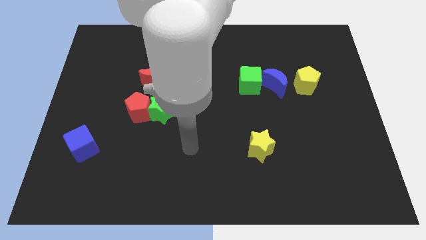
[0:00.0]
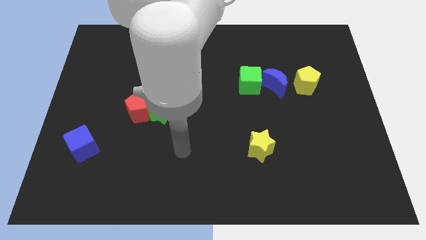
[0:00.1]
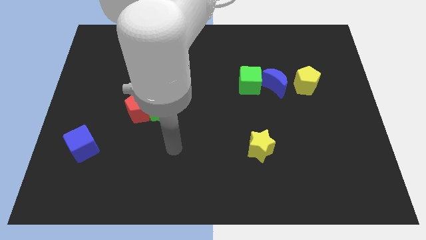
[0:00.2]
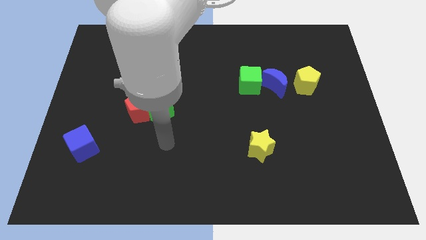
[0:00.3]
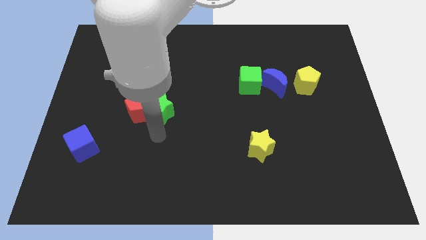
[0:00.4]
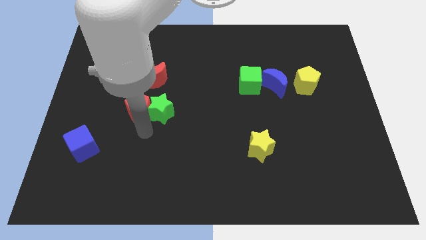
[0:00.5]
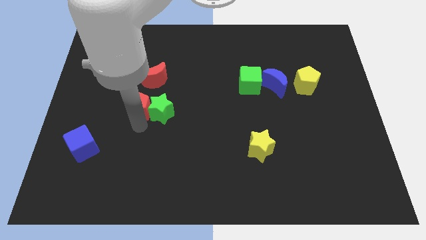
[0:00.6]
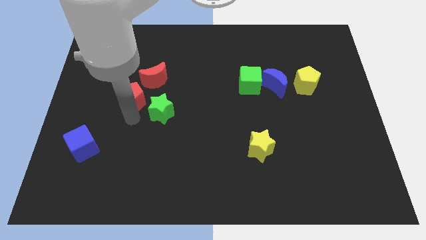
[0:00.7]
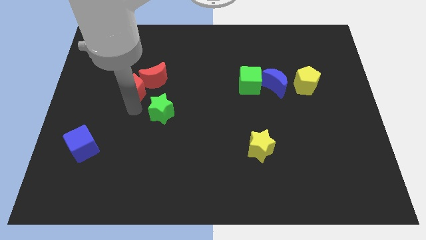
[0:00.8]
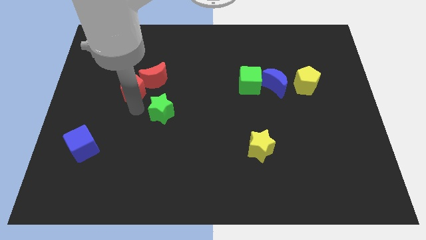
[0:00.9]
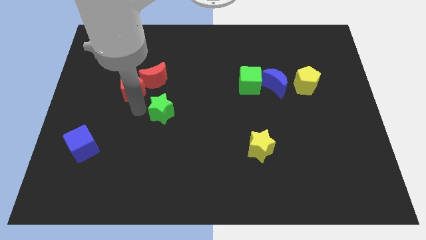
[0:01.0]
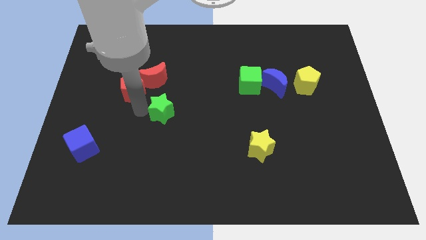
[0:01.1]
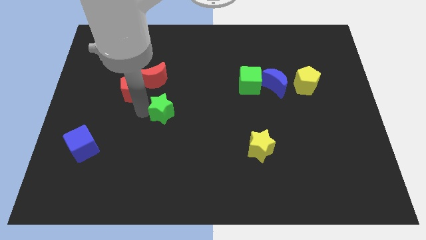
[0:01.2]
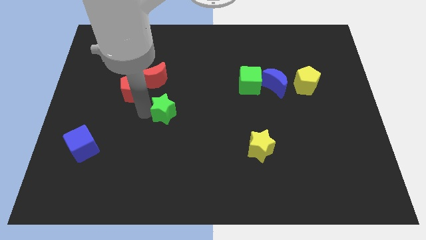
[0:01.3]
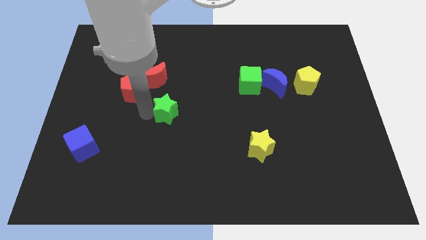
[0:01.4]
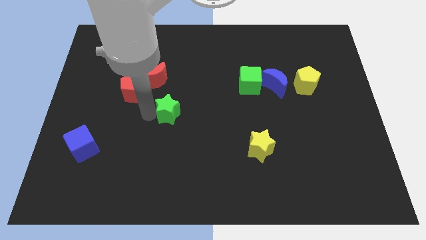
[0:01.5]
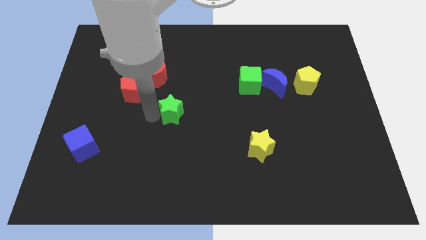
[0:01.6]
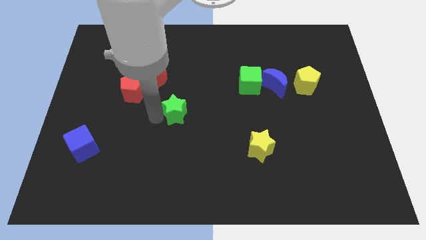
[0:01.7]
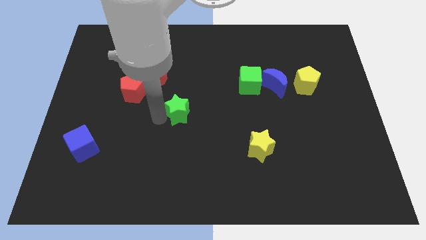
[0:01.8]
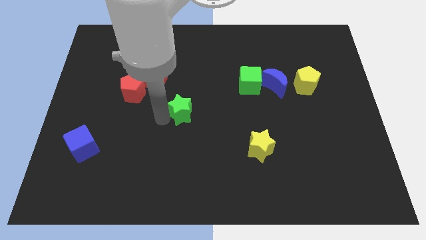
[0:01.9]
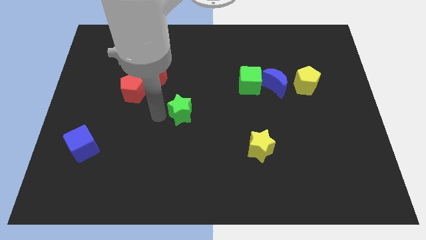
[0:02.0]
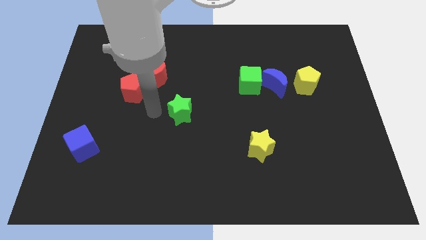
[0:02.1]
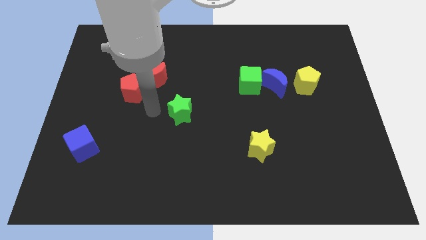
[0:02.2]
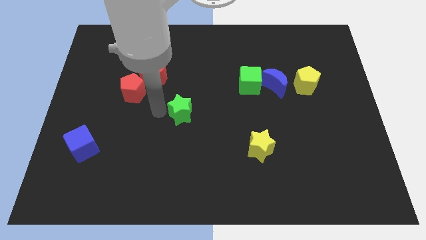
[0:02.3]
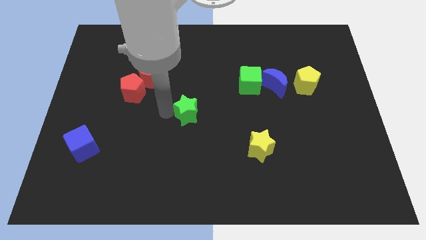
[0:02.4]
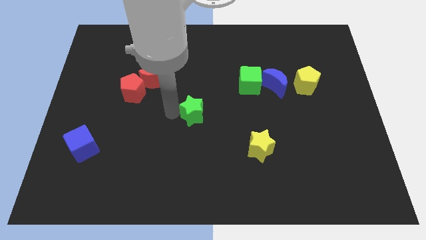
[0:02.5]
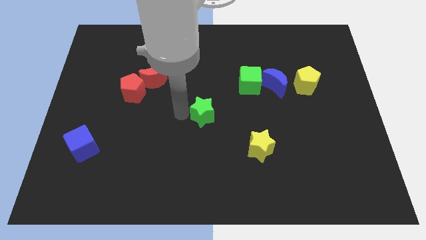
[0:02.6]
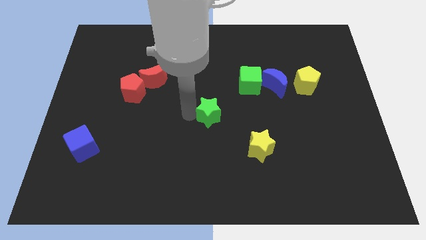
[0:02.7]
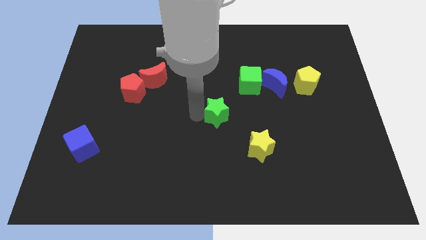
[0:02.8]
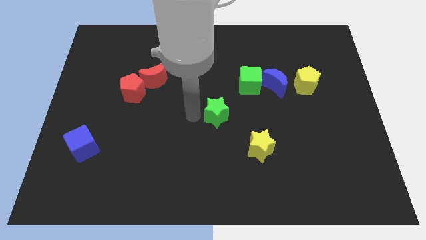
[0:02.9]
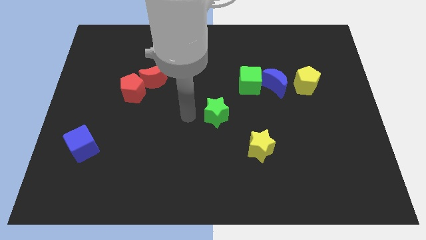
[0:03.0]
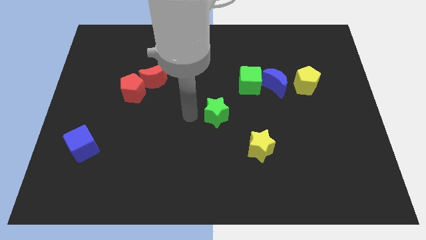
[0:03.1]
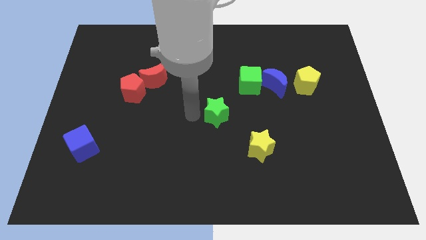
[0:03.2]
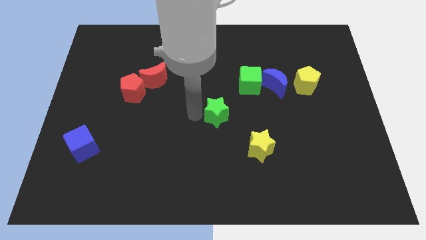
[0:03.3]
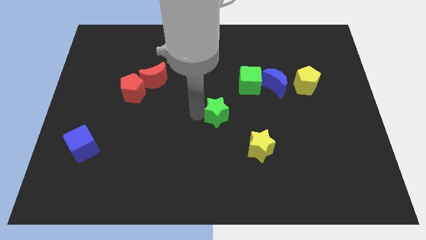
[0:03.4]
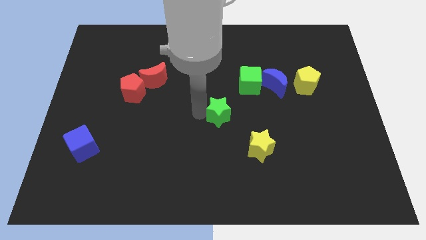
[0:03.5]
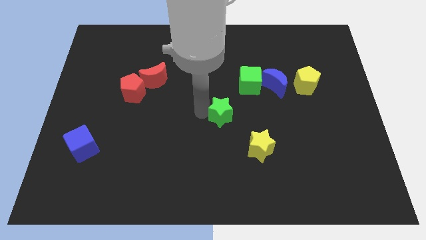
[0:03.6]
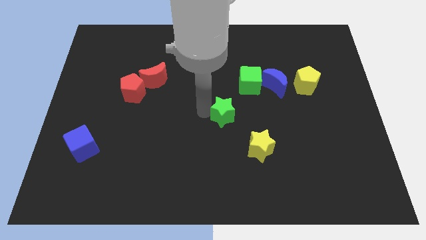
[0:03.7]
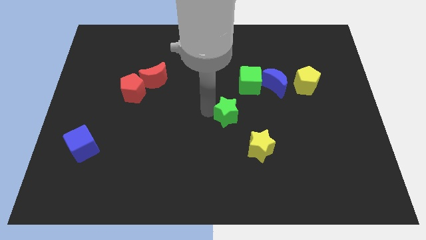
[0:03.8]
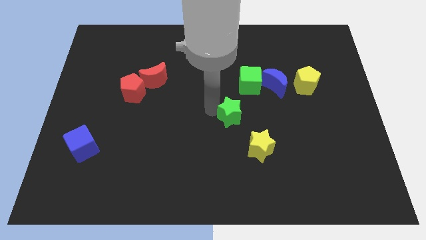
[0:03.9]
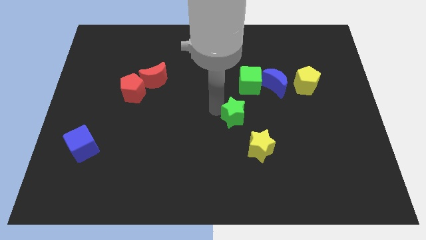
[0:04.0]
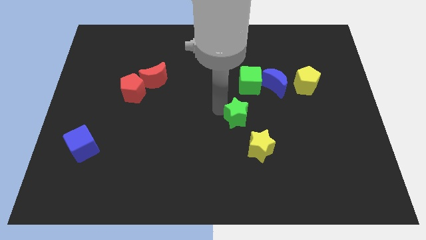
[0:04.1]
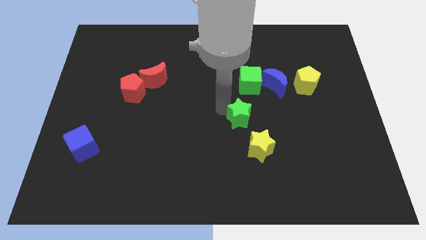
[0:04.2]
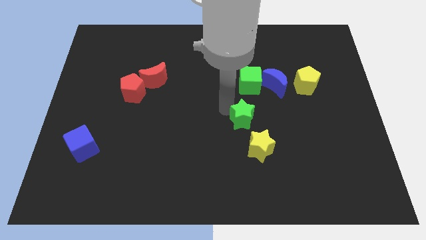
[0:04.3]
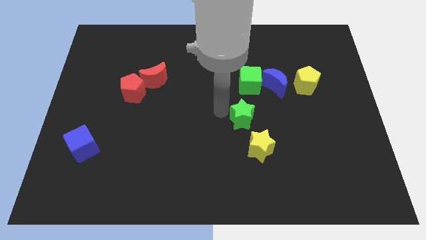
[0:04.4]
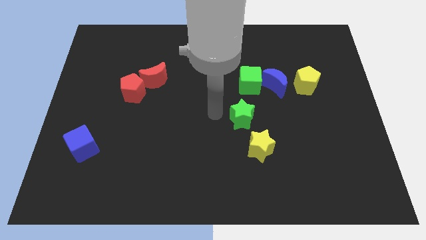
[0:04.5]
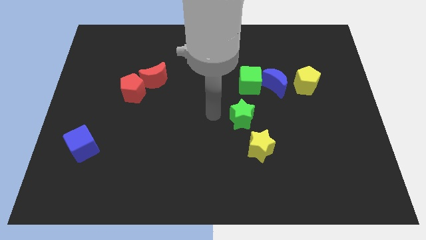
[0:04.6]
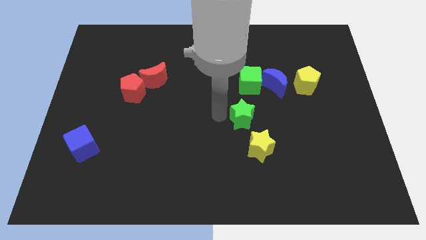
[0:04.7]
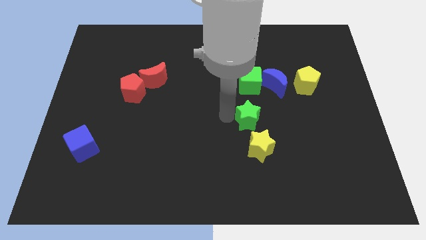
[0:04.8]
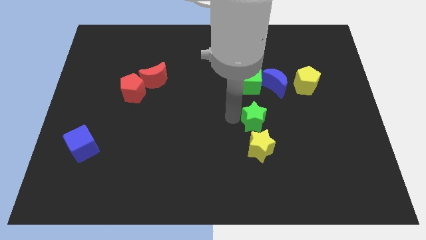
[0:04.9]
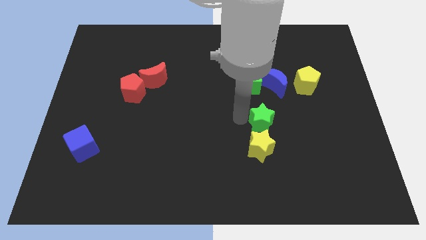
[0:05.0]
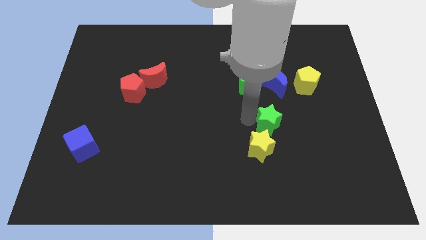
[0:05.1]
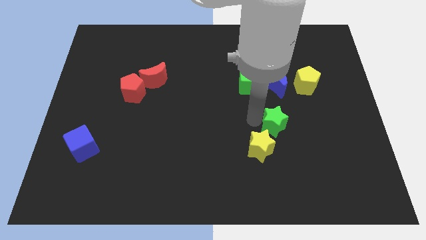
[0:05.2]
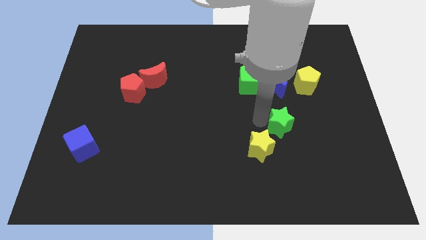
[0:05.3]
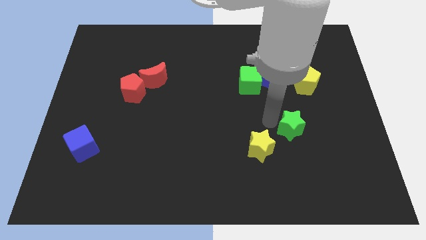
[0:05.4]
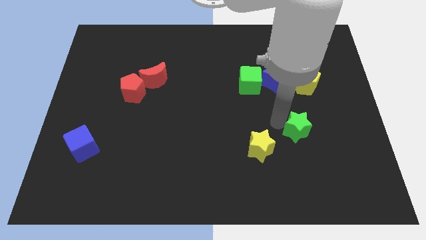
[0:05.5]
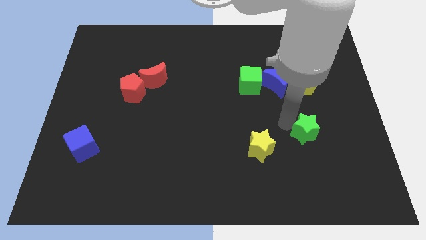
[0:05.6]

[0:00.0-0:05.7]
move the green star to the right of the yellow star

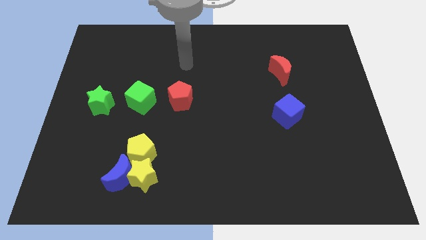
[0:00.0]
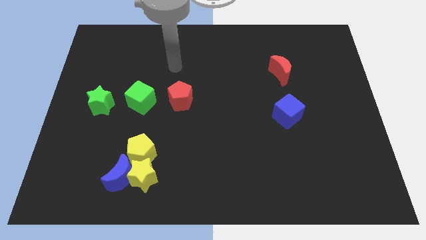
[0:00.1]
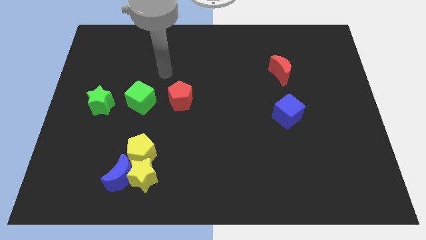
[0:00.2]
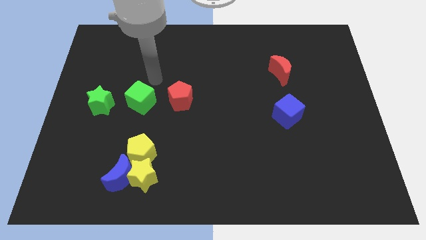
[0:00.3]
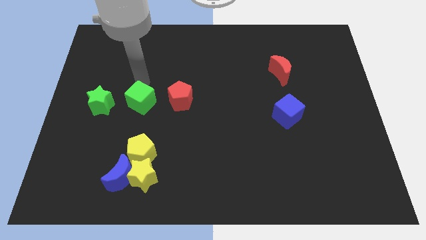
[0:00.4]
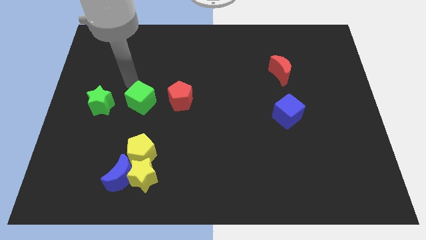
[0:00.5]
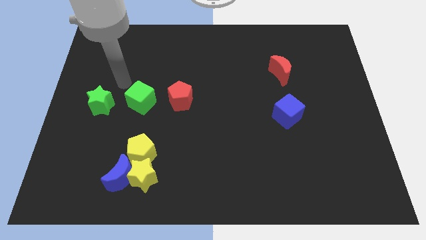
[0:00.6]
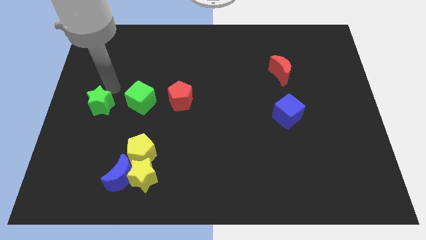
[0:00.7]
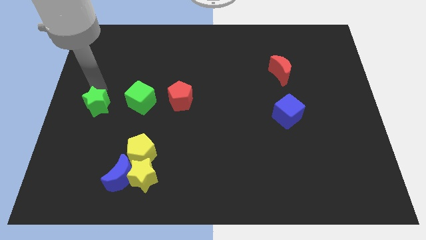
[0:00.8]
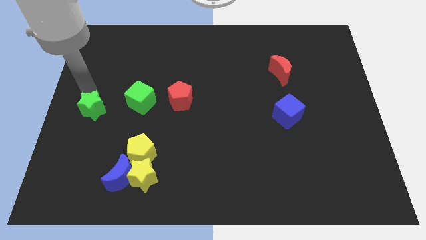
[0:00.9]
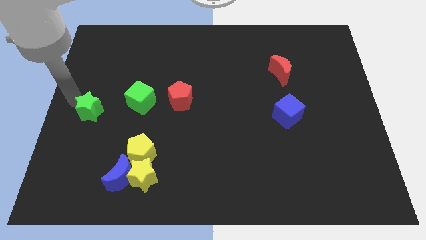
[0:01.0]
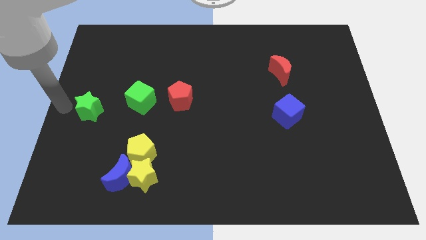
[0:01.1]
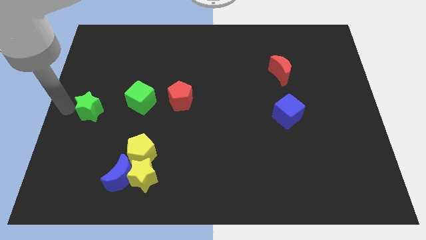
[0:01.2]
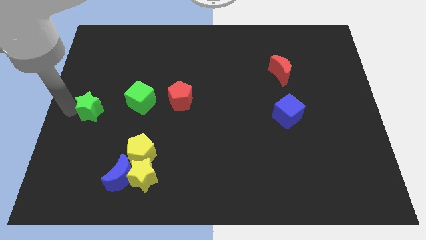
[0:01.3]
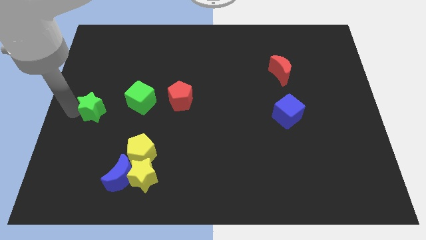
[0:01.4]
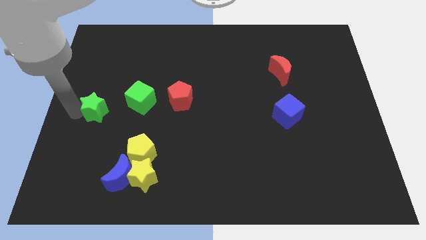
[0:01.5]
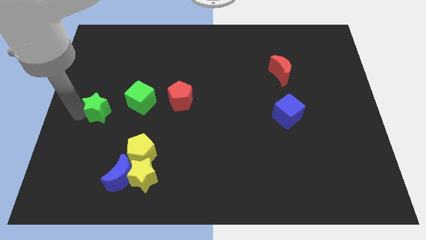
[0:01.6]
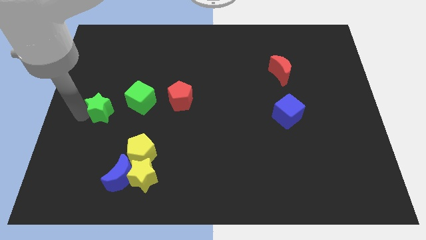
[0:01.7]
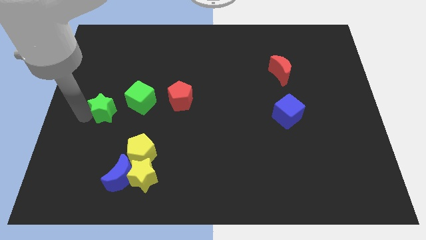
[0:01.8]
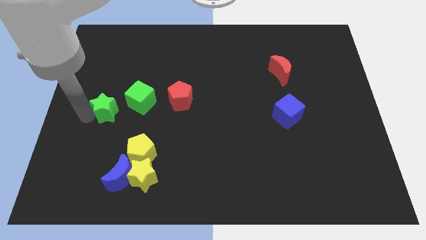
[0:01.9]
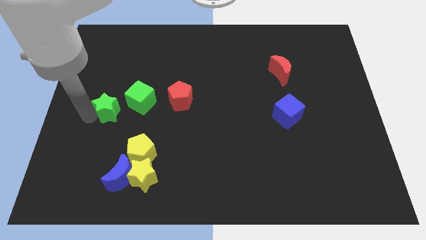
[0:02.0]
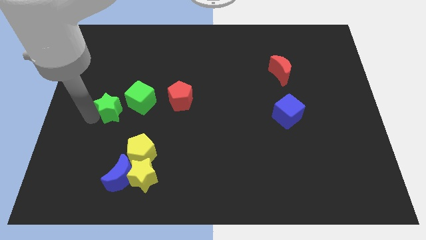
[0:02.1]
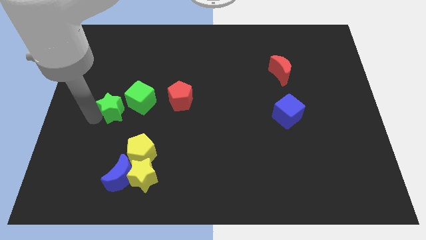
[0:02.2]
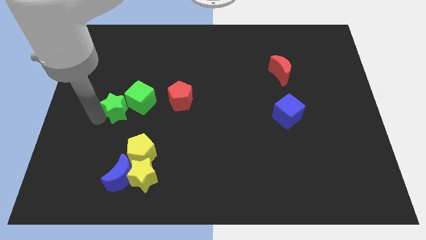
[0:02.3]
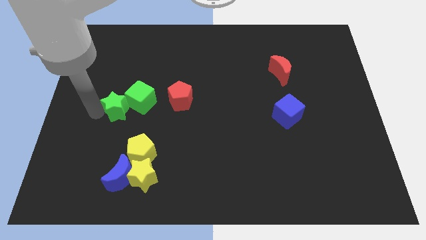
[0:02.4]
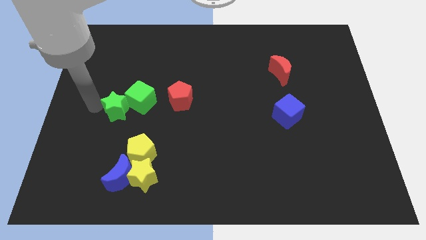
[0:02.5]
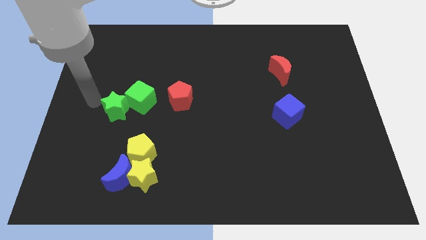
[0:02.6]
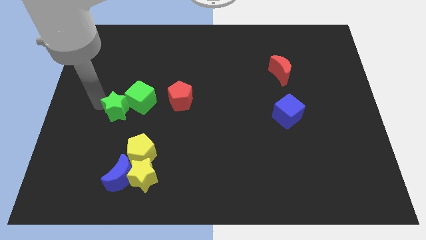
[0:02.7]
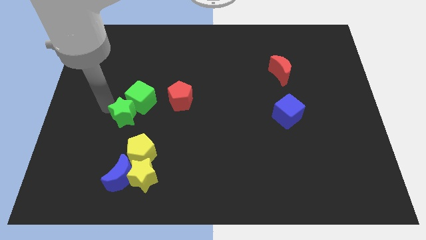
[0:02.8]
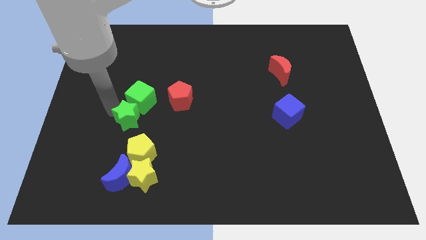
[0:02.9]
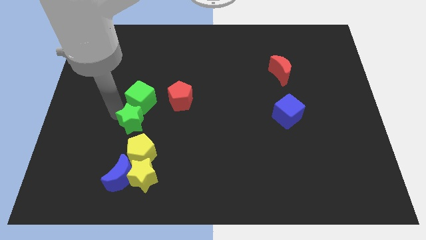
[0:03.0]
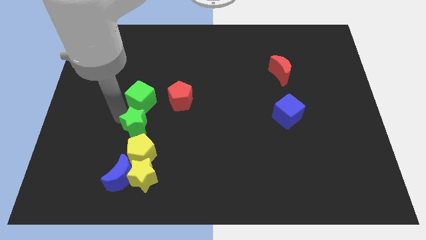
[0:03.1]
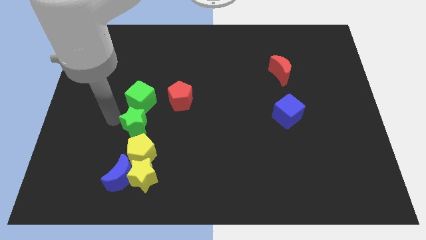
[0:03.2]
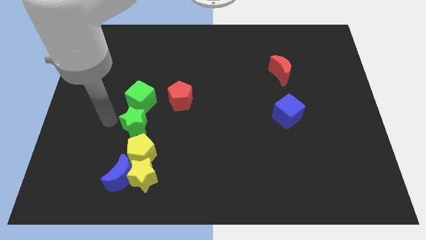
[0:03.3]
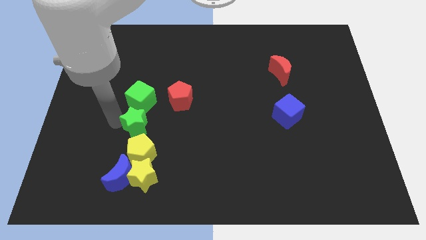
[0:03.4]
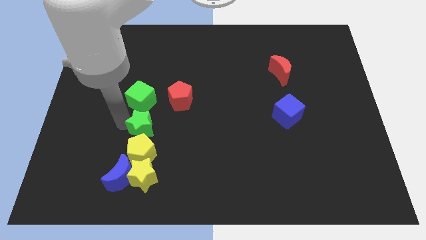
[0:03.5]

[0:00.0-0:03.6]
slide the green star to the top right of the yellow pentagon
